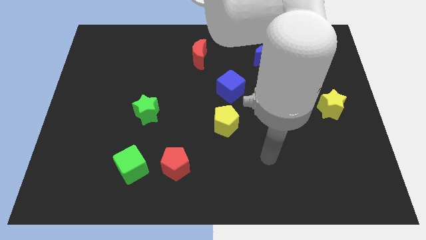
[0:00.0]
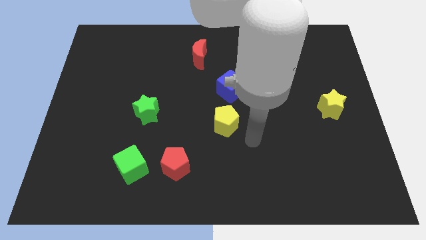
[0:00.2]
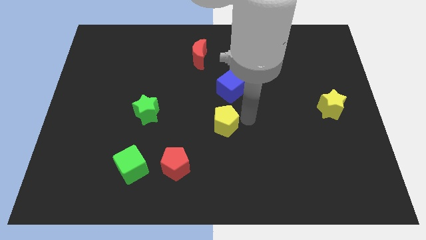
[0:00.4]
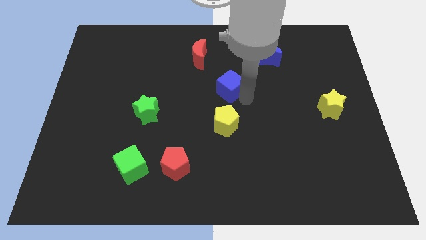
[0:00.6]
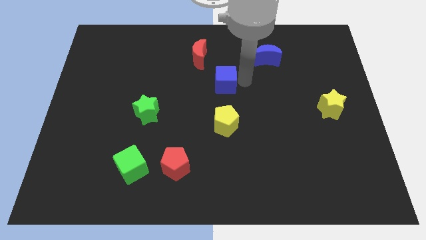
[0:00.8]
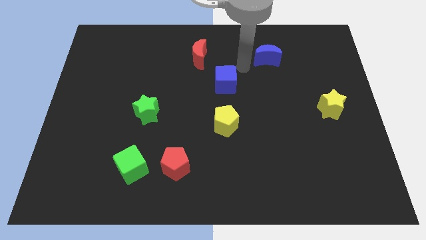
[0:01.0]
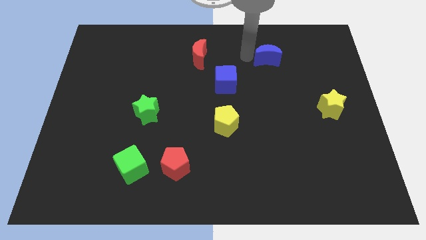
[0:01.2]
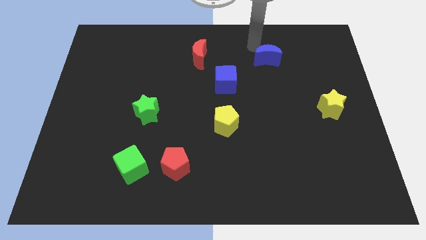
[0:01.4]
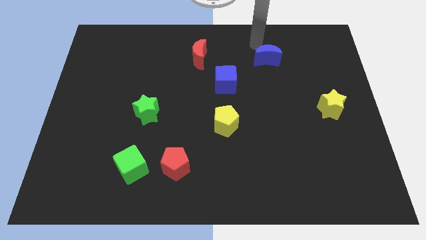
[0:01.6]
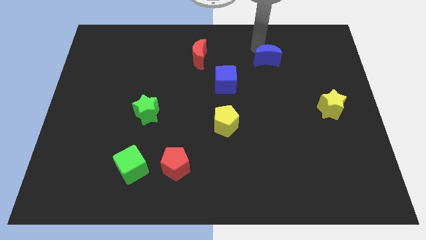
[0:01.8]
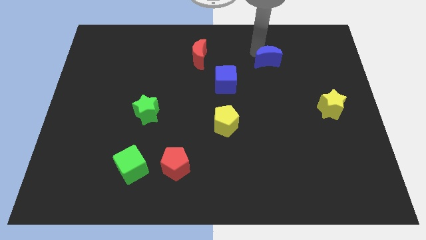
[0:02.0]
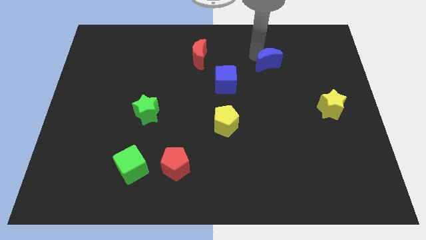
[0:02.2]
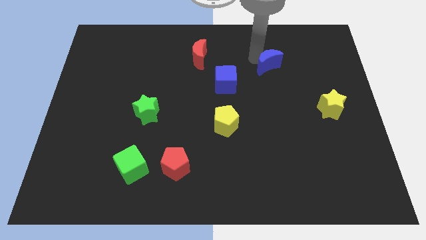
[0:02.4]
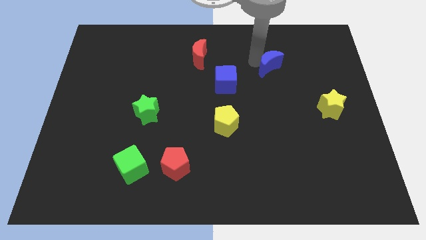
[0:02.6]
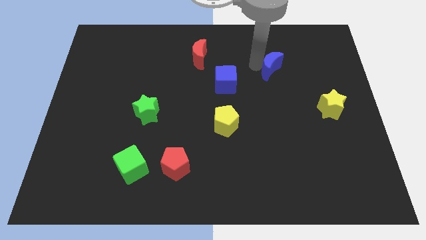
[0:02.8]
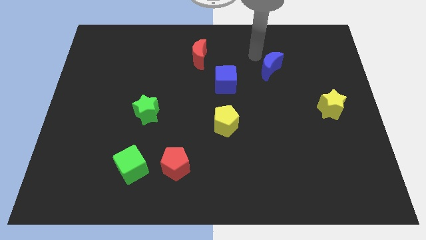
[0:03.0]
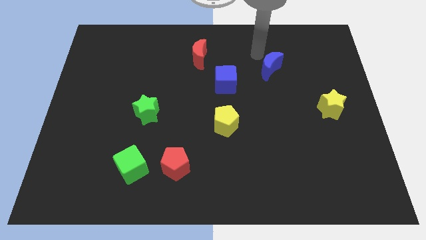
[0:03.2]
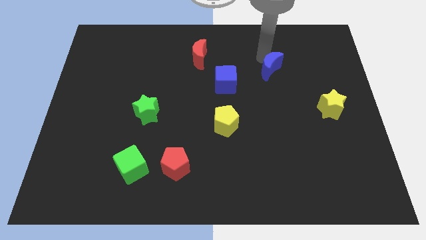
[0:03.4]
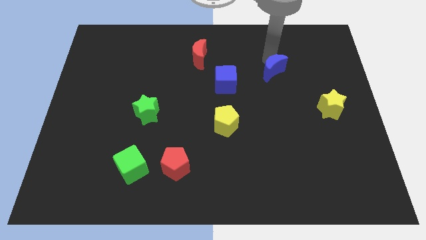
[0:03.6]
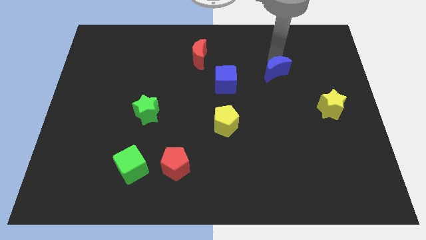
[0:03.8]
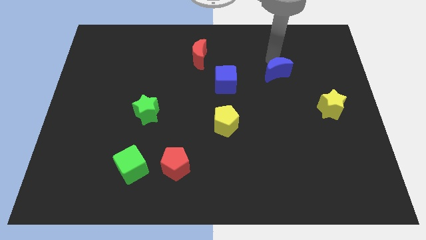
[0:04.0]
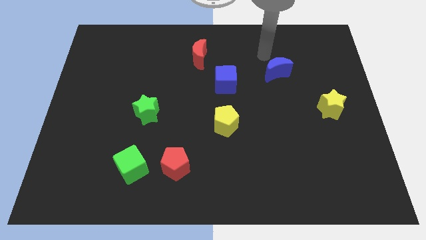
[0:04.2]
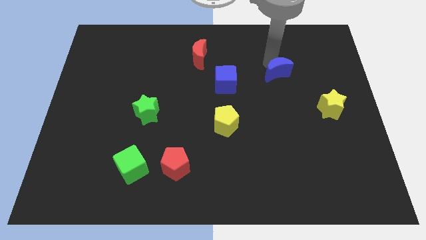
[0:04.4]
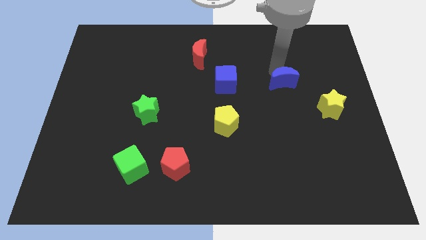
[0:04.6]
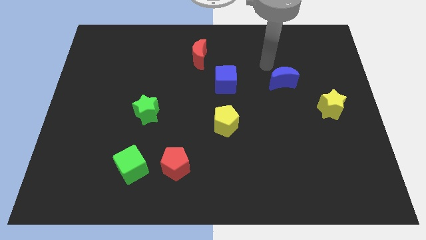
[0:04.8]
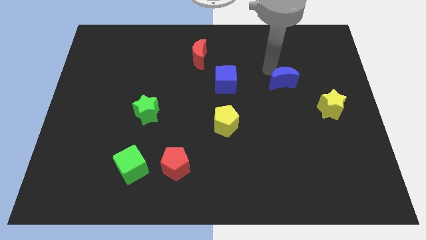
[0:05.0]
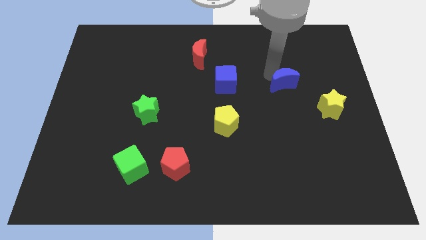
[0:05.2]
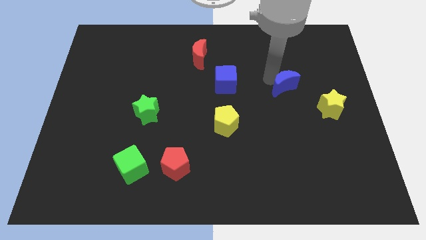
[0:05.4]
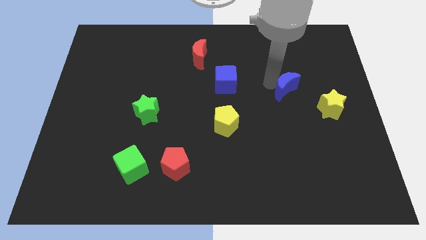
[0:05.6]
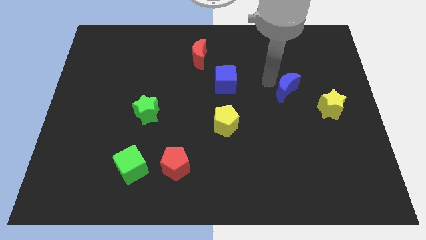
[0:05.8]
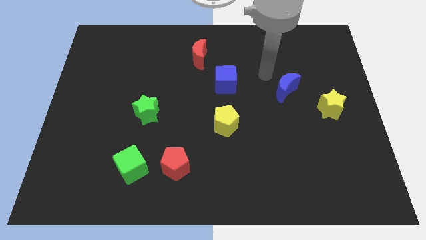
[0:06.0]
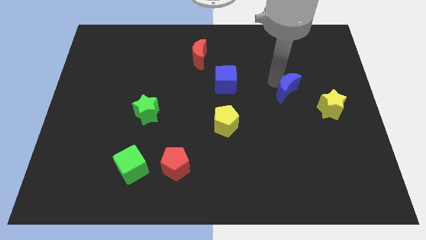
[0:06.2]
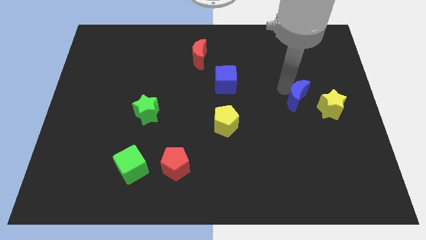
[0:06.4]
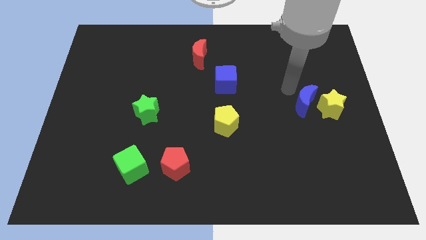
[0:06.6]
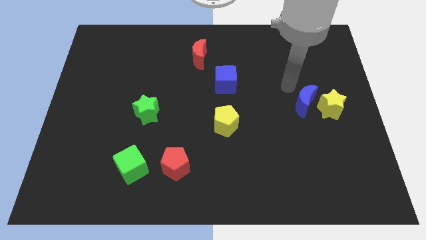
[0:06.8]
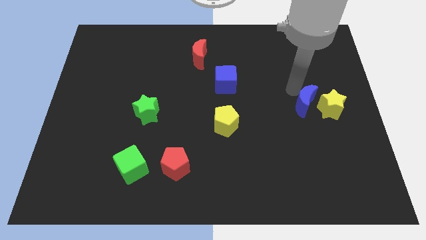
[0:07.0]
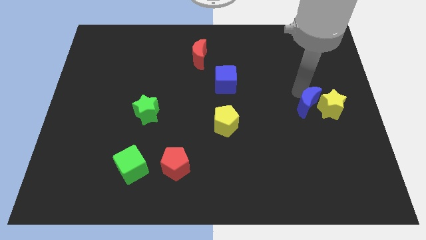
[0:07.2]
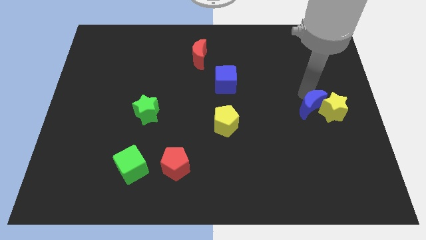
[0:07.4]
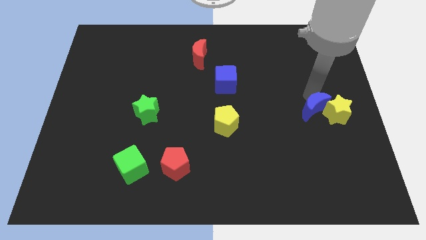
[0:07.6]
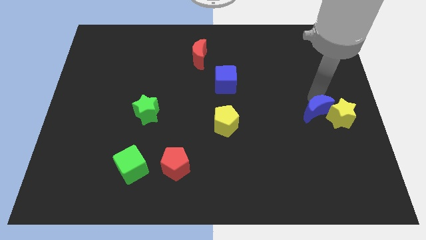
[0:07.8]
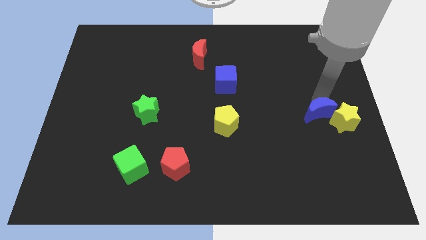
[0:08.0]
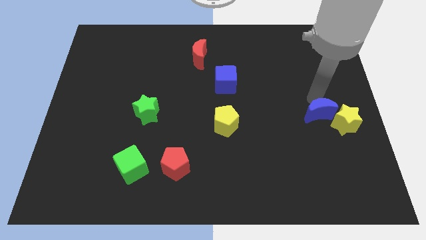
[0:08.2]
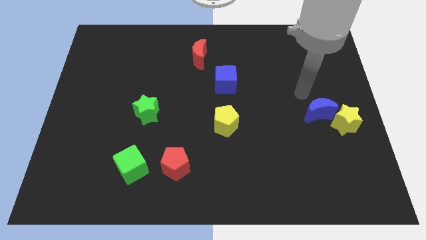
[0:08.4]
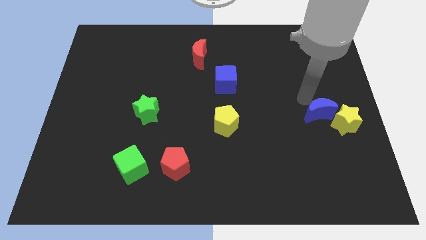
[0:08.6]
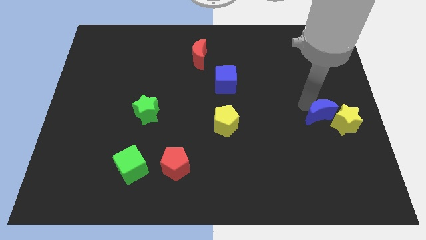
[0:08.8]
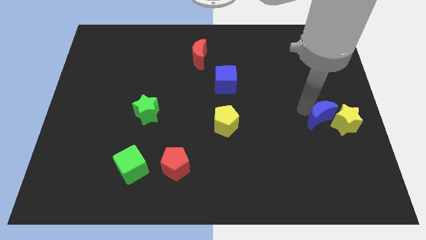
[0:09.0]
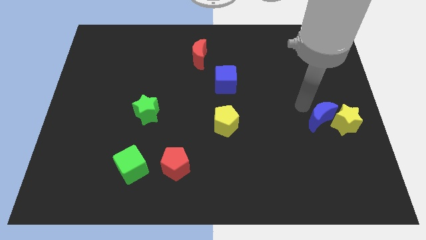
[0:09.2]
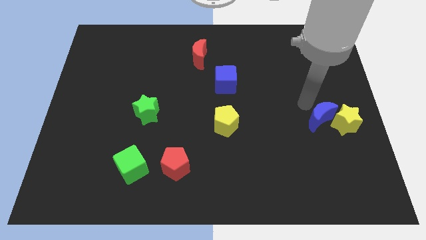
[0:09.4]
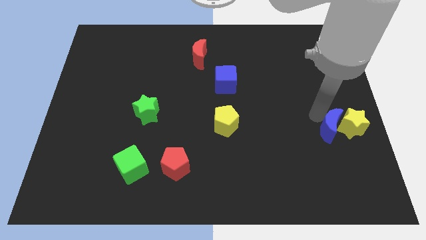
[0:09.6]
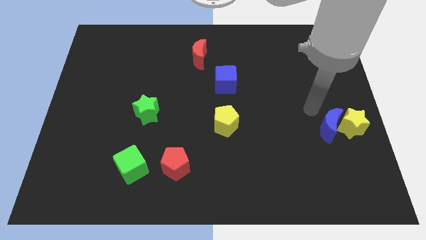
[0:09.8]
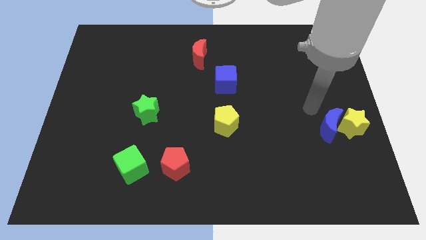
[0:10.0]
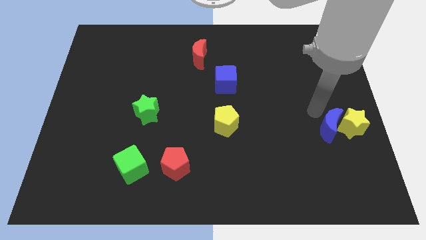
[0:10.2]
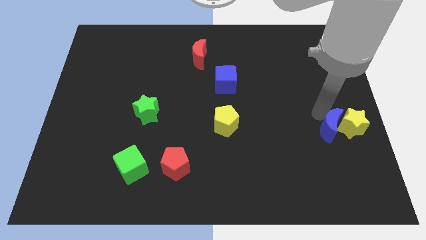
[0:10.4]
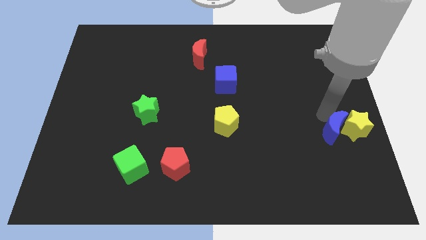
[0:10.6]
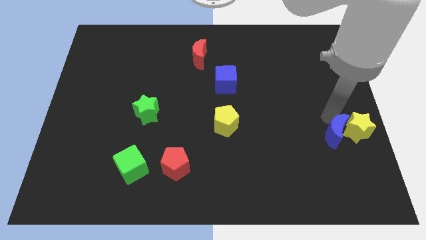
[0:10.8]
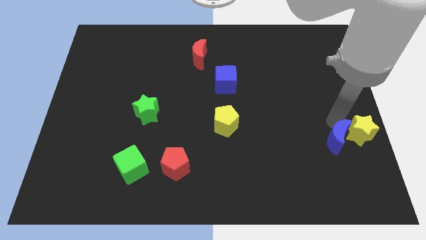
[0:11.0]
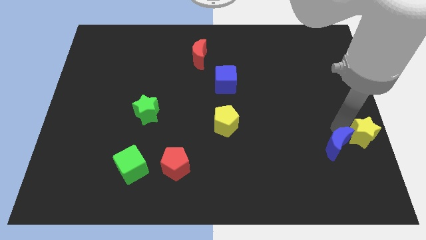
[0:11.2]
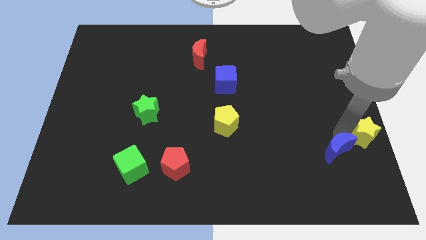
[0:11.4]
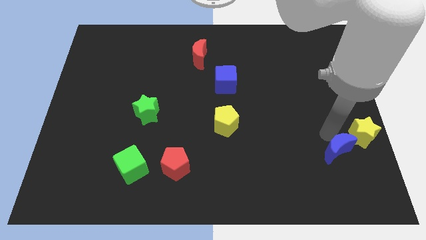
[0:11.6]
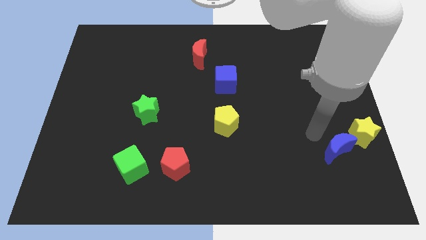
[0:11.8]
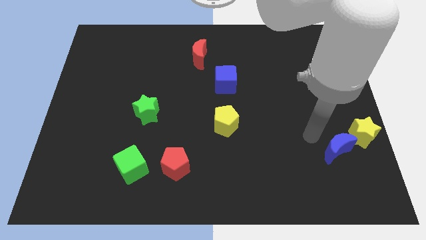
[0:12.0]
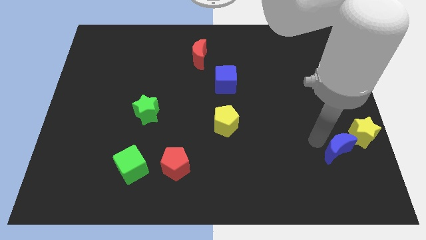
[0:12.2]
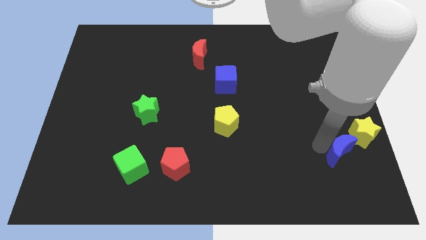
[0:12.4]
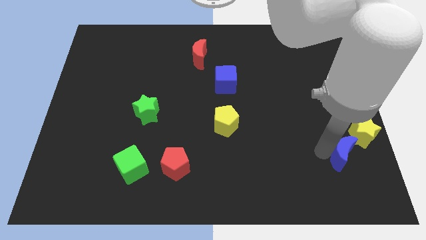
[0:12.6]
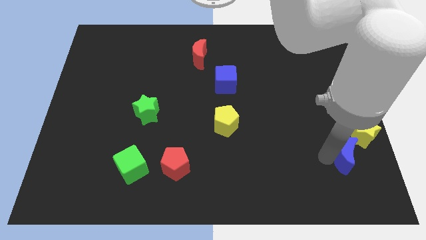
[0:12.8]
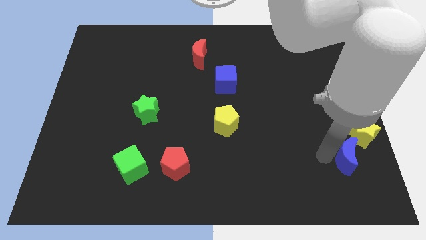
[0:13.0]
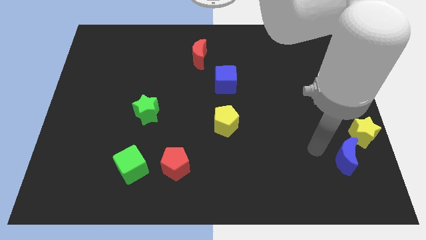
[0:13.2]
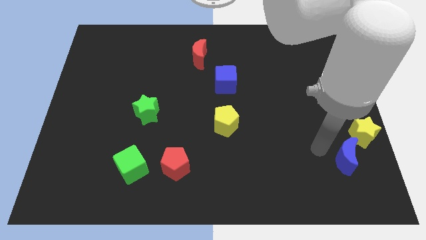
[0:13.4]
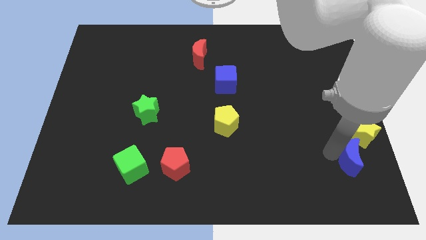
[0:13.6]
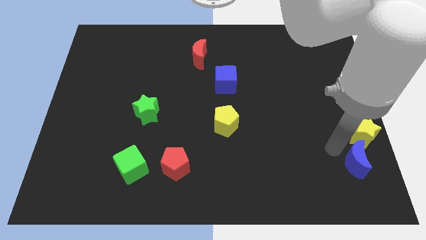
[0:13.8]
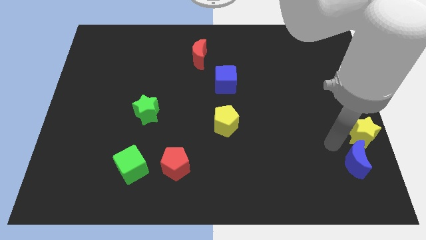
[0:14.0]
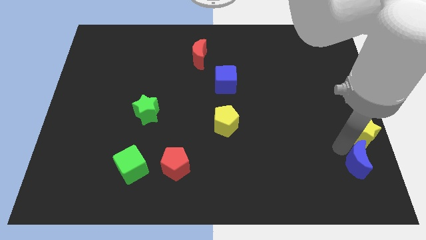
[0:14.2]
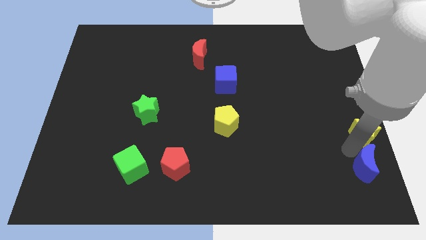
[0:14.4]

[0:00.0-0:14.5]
move the blue moon to the bottom right
